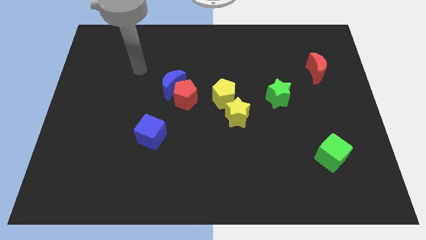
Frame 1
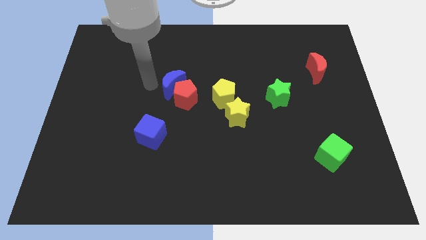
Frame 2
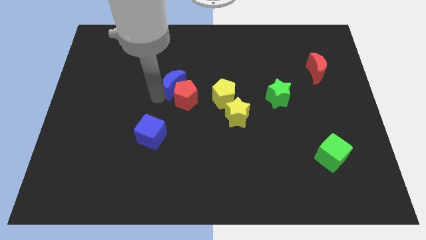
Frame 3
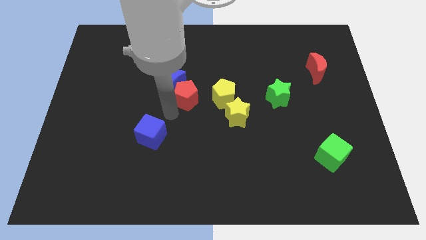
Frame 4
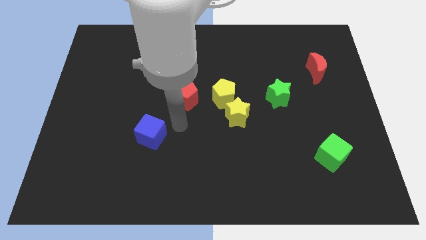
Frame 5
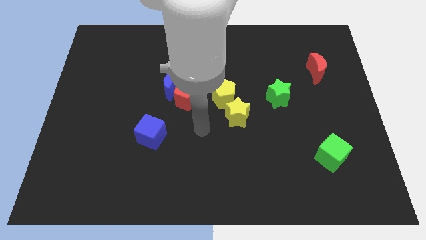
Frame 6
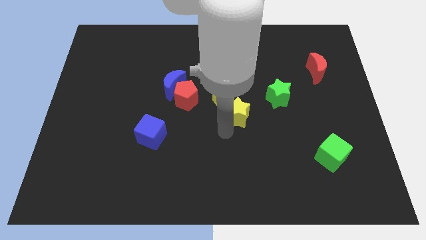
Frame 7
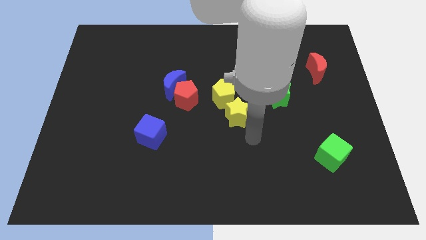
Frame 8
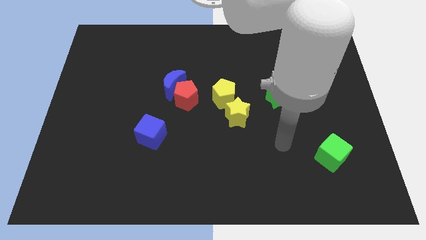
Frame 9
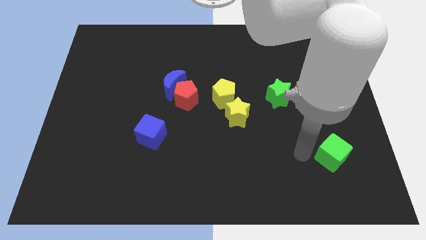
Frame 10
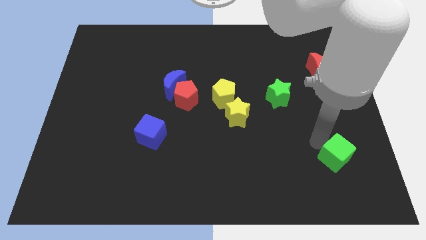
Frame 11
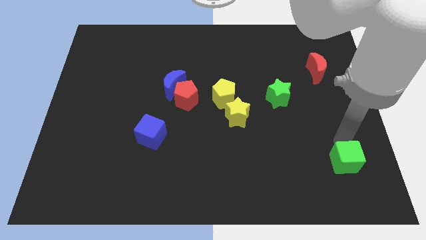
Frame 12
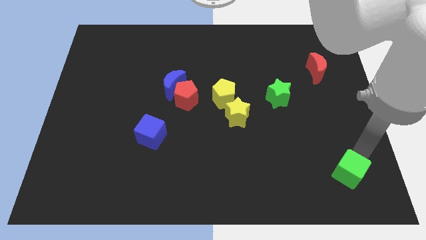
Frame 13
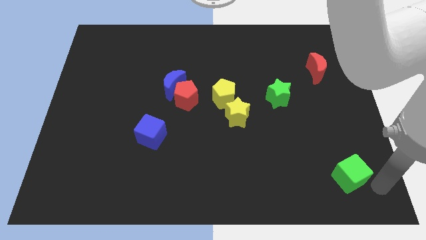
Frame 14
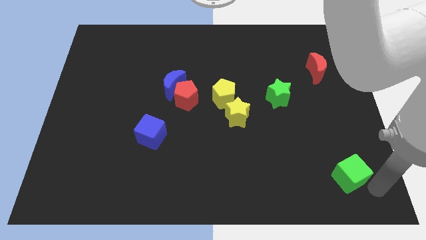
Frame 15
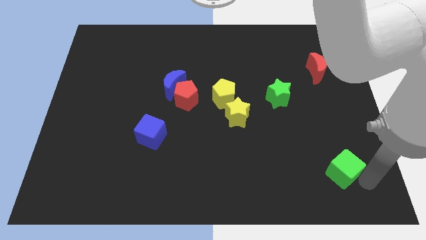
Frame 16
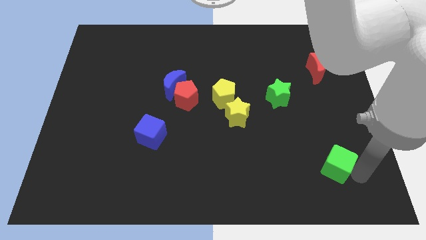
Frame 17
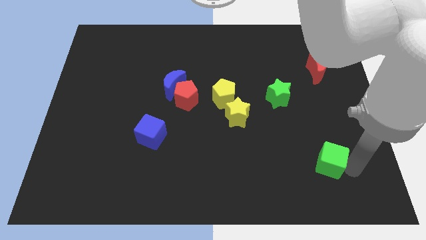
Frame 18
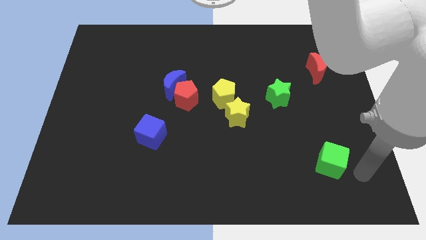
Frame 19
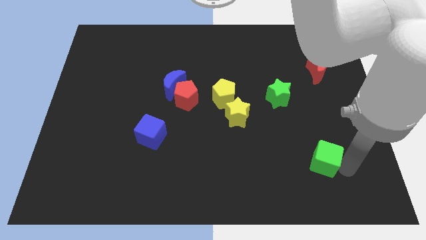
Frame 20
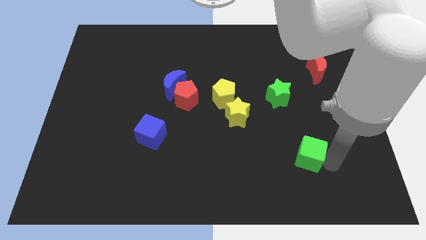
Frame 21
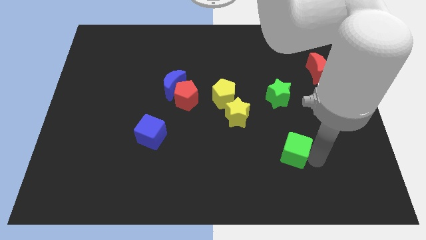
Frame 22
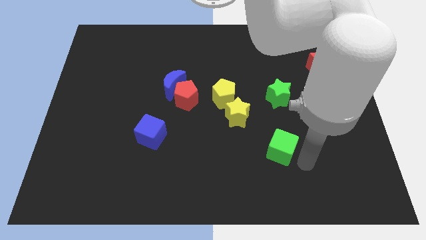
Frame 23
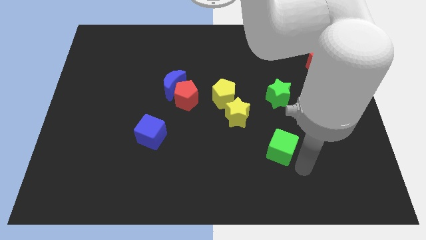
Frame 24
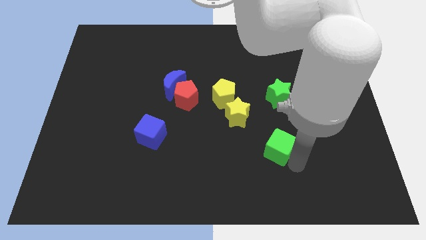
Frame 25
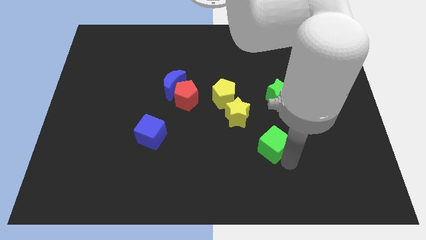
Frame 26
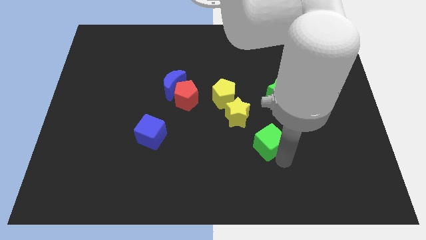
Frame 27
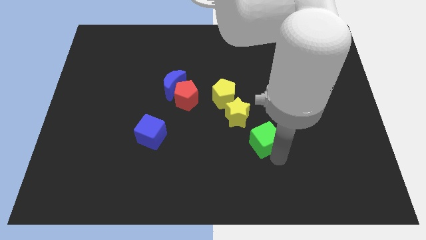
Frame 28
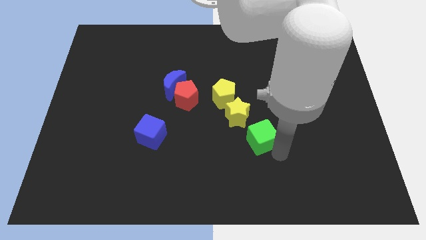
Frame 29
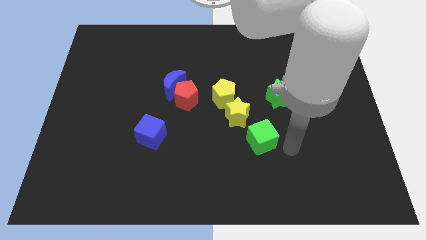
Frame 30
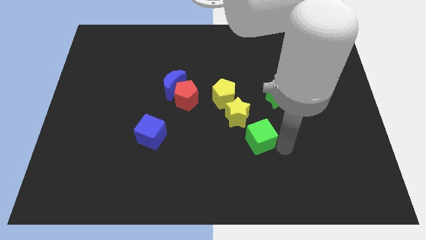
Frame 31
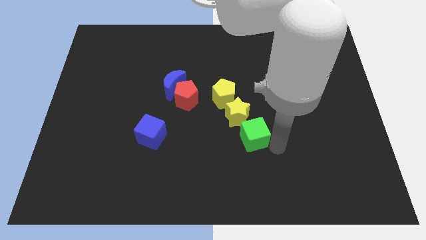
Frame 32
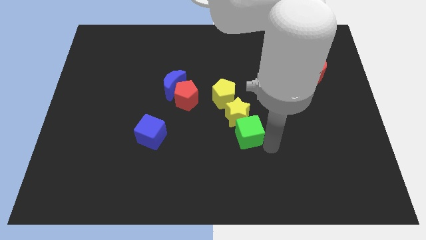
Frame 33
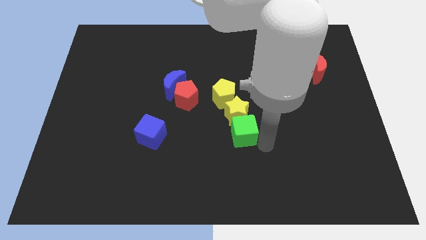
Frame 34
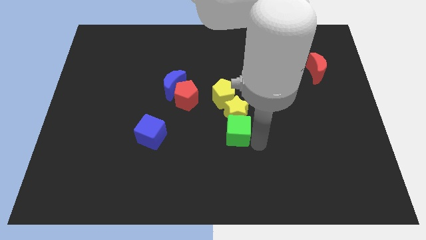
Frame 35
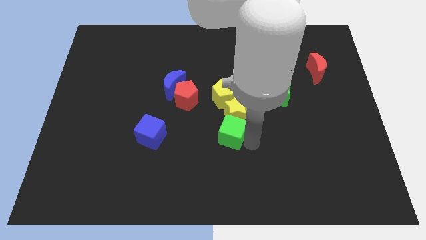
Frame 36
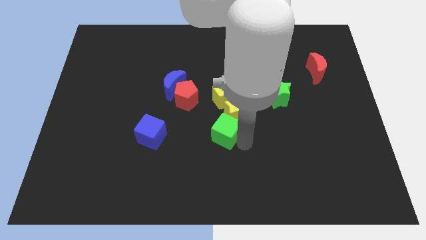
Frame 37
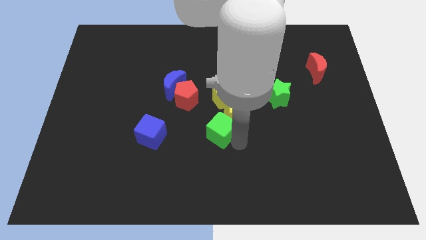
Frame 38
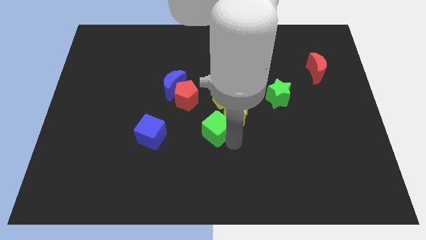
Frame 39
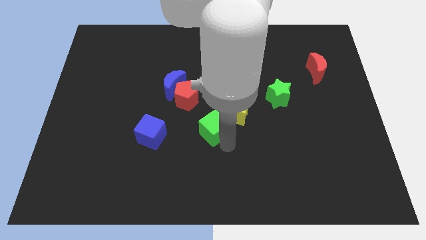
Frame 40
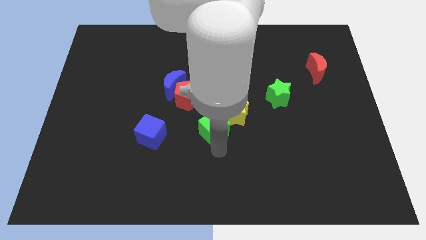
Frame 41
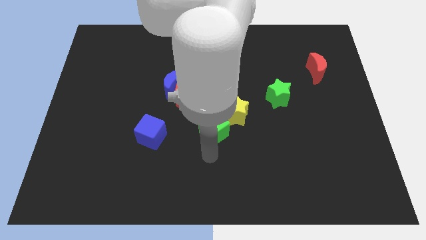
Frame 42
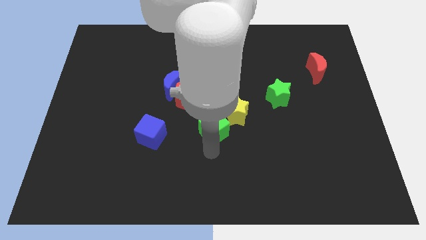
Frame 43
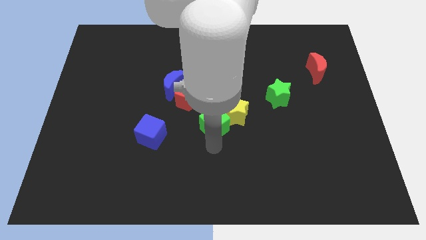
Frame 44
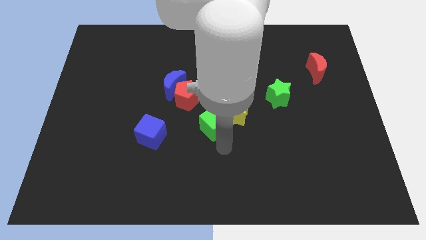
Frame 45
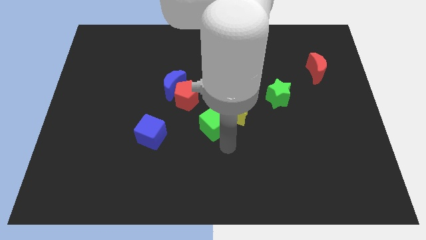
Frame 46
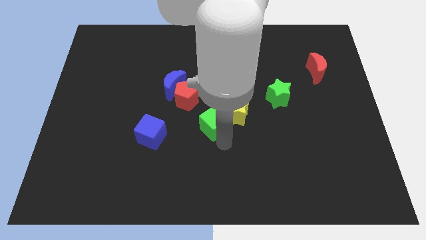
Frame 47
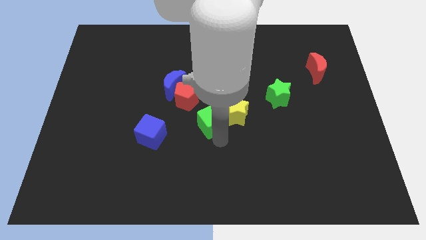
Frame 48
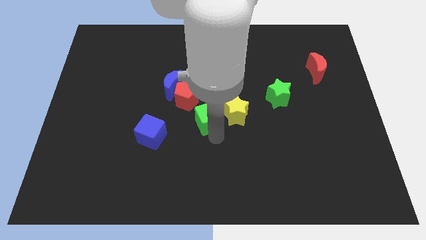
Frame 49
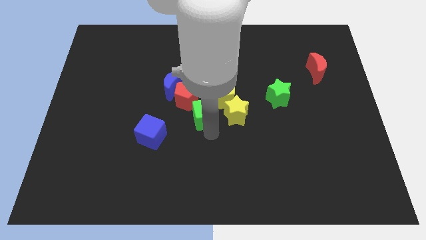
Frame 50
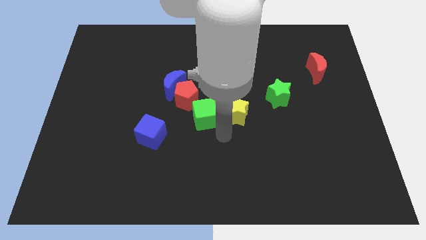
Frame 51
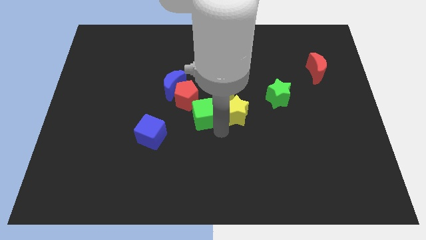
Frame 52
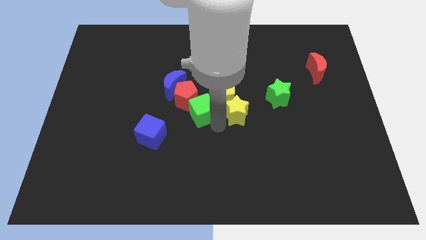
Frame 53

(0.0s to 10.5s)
push the green cube to the red pentagon

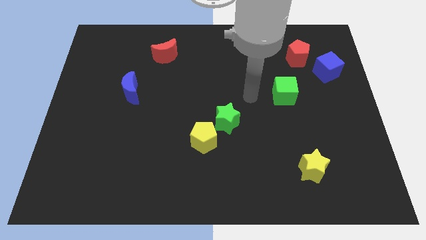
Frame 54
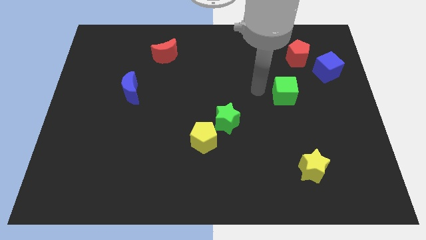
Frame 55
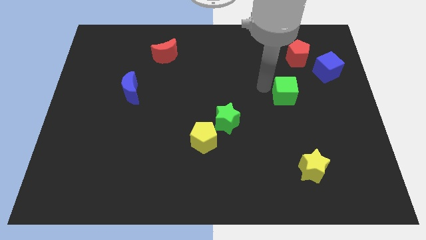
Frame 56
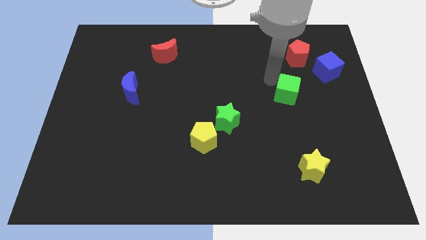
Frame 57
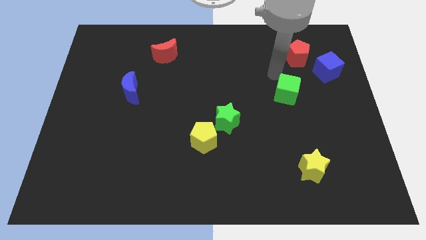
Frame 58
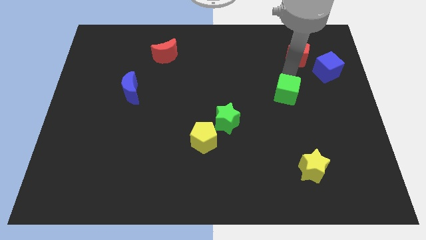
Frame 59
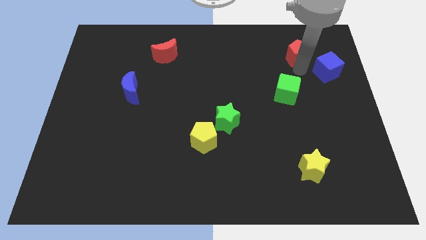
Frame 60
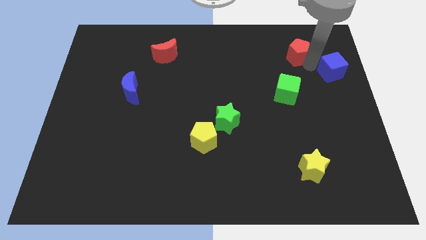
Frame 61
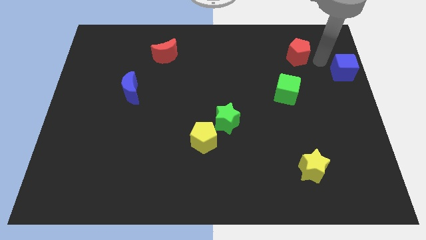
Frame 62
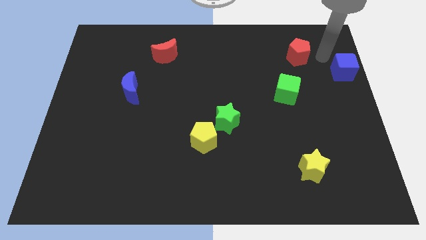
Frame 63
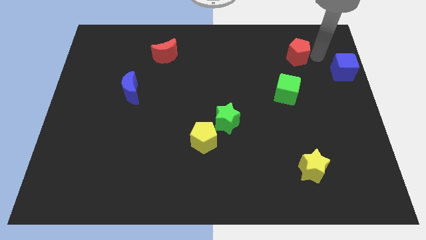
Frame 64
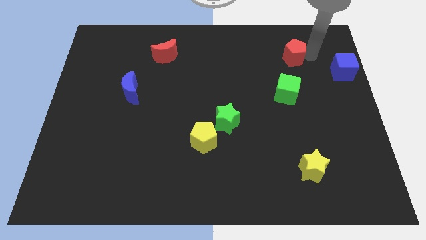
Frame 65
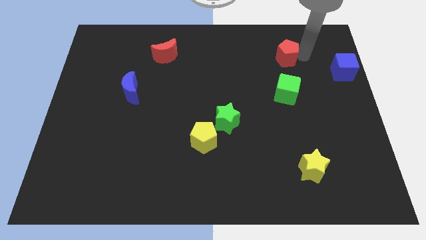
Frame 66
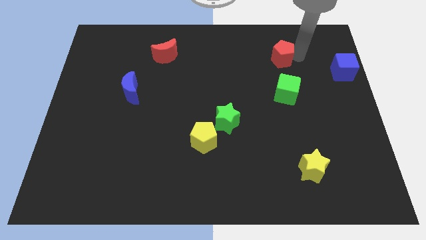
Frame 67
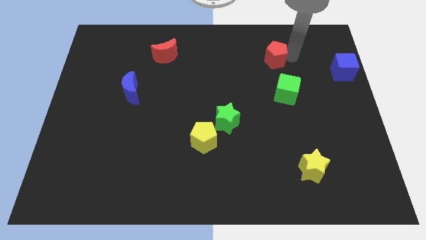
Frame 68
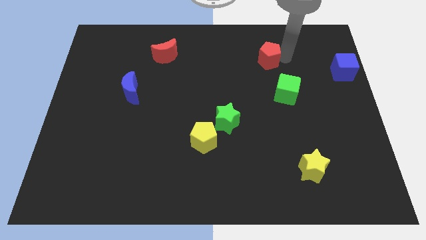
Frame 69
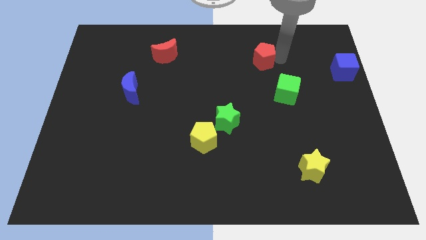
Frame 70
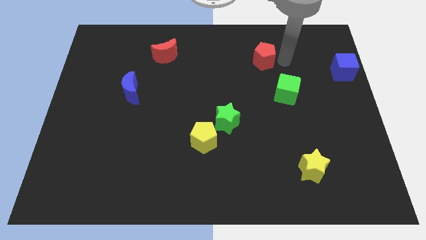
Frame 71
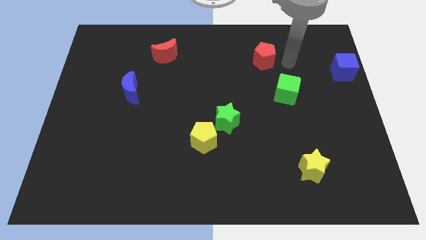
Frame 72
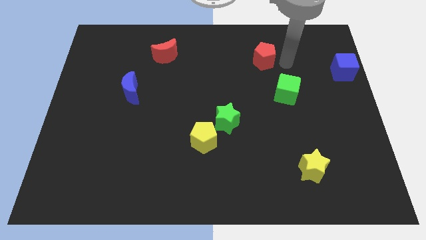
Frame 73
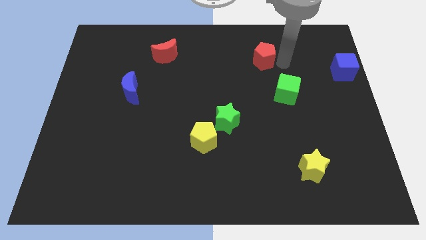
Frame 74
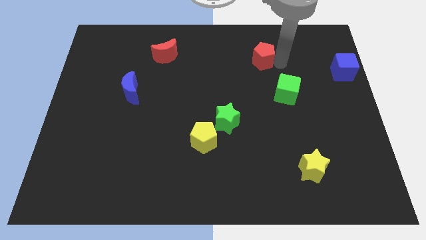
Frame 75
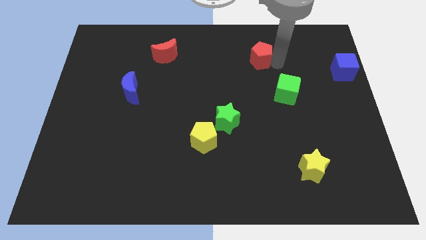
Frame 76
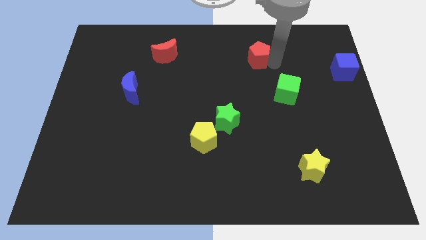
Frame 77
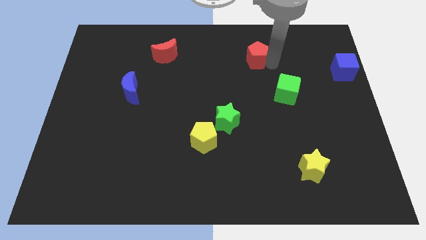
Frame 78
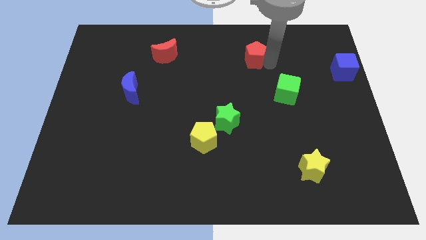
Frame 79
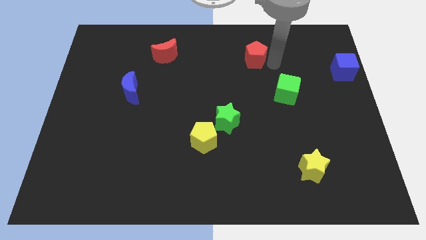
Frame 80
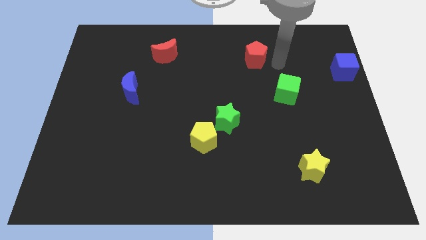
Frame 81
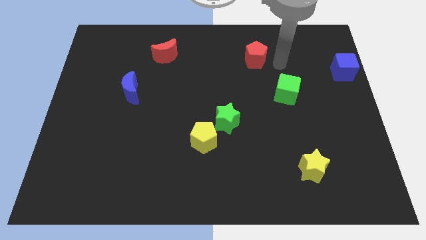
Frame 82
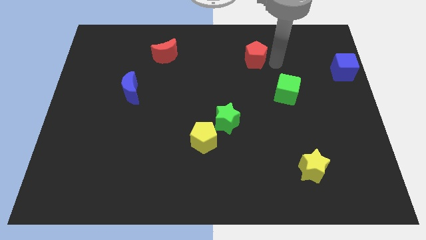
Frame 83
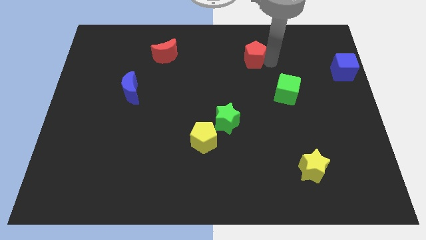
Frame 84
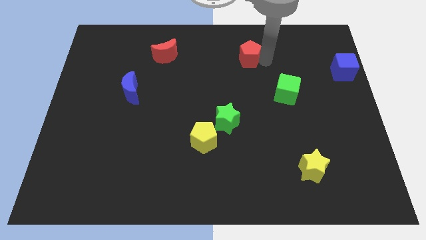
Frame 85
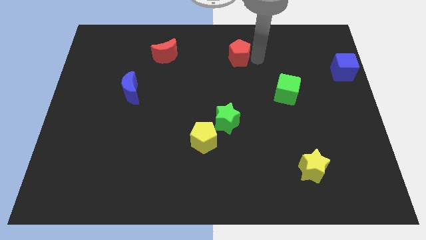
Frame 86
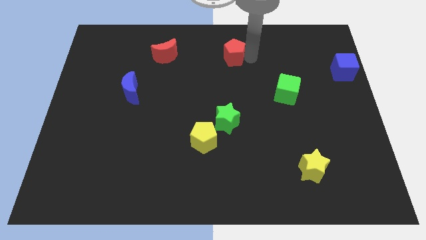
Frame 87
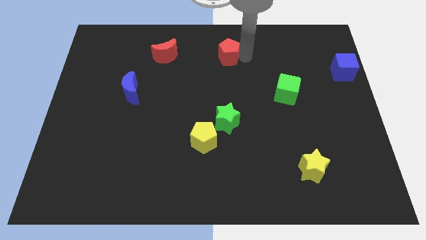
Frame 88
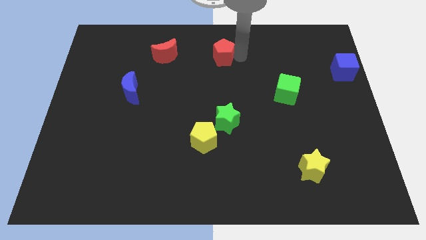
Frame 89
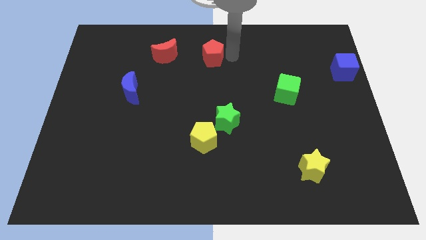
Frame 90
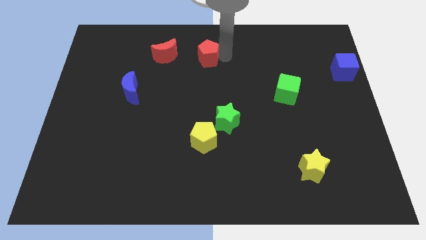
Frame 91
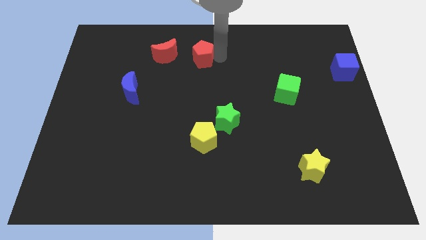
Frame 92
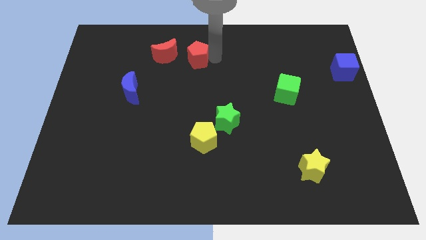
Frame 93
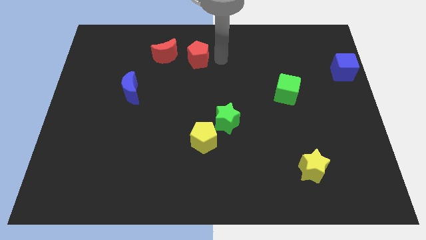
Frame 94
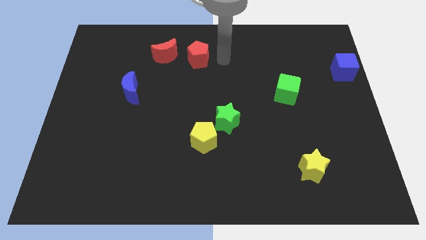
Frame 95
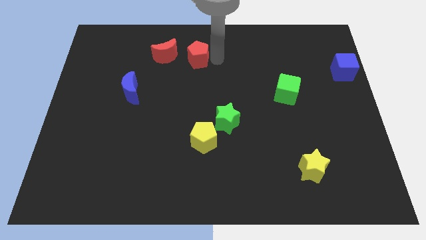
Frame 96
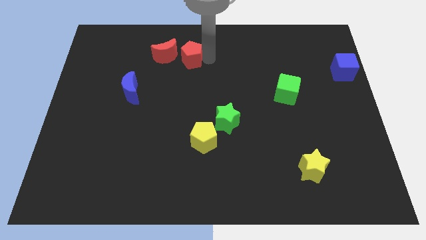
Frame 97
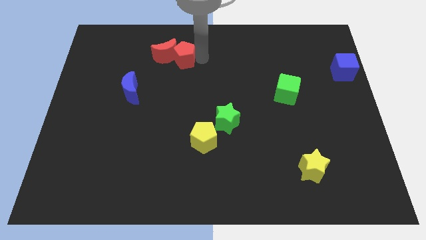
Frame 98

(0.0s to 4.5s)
push the red pentagon to the red moon
